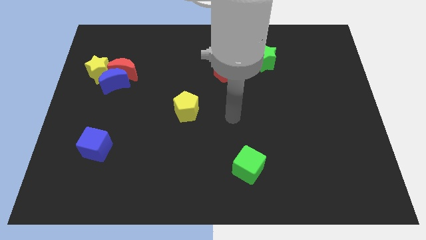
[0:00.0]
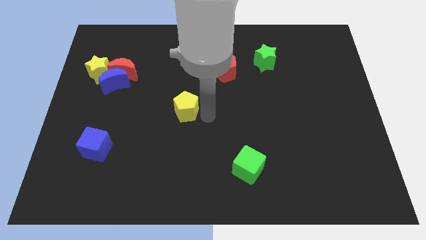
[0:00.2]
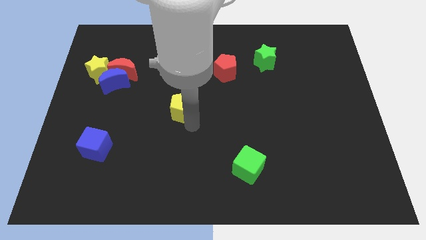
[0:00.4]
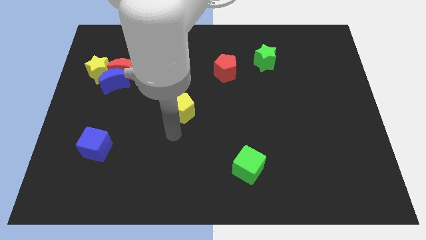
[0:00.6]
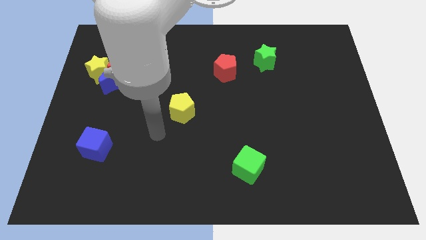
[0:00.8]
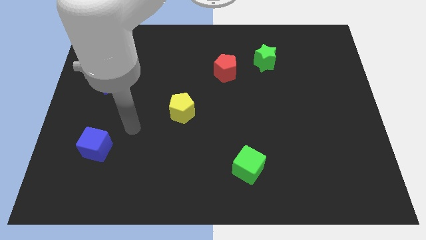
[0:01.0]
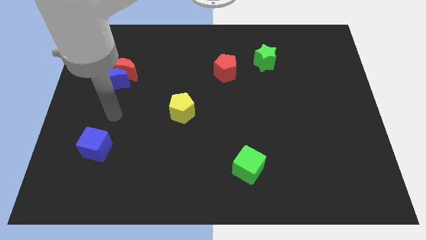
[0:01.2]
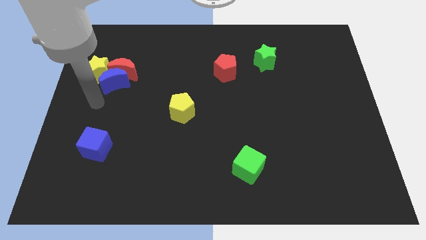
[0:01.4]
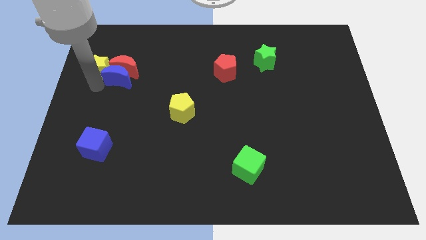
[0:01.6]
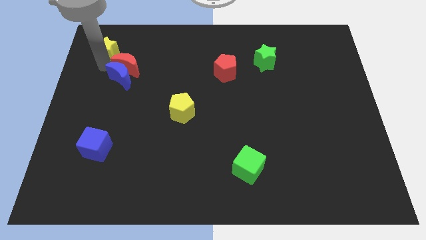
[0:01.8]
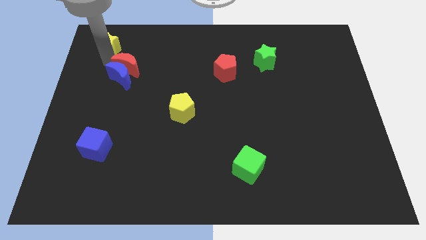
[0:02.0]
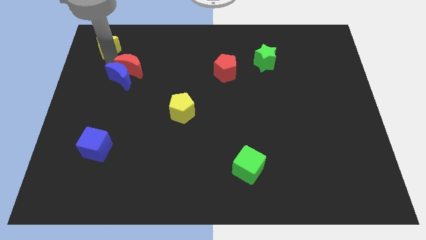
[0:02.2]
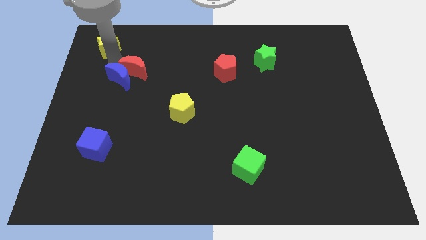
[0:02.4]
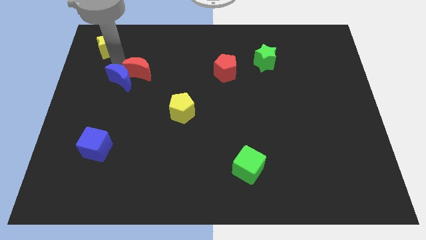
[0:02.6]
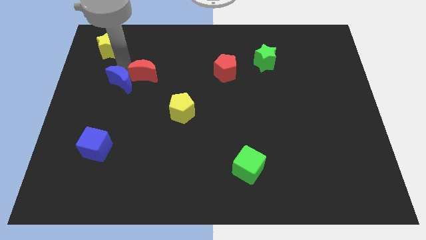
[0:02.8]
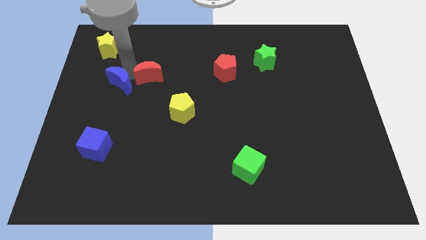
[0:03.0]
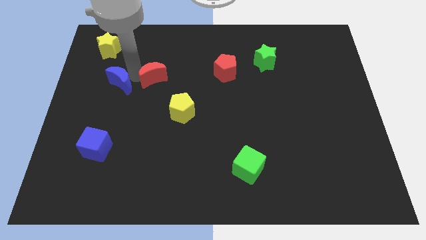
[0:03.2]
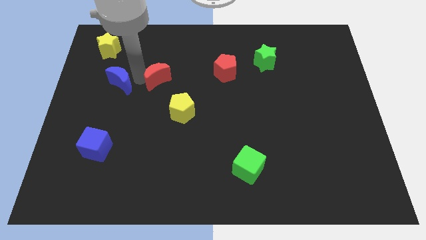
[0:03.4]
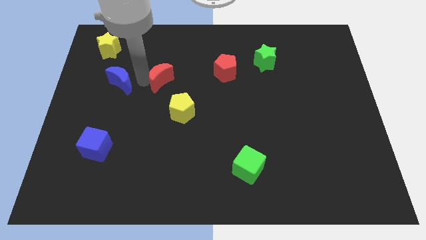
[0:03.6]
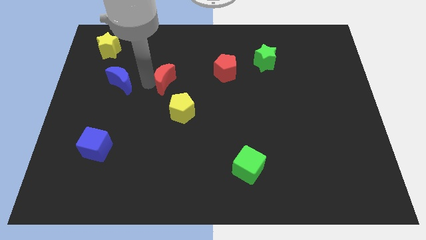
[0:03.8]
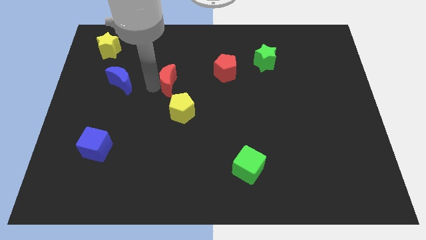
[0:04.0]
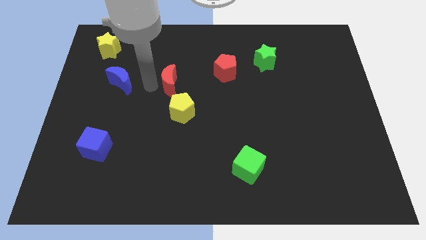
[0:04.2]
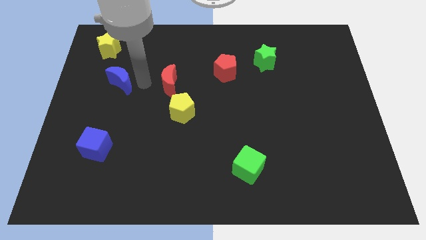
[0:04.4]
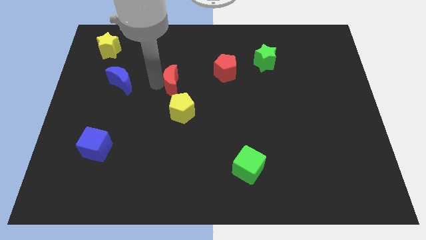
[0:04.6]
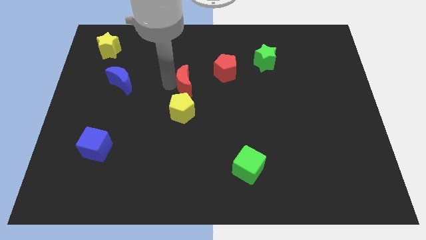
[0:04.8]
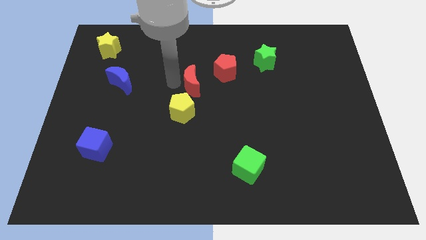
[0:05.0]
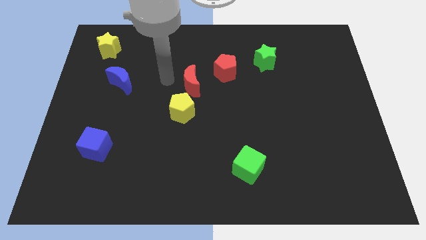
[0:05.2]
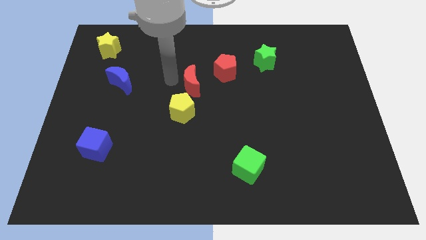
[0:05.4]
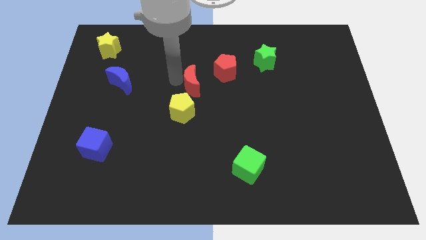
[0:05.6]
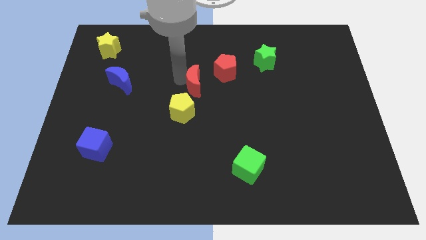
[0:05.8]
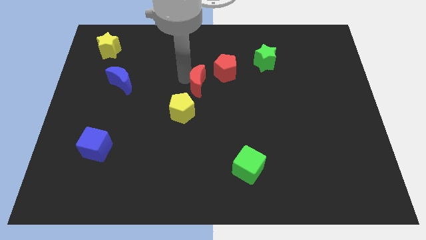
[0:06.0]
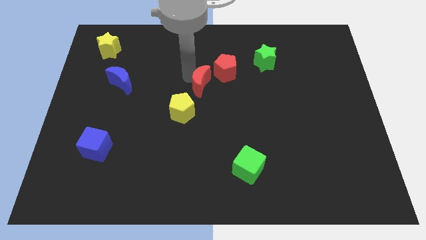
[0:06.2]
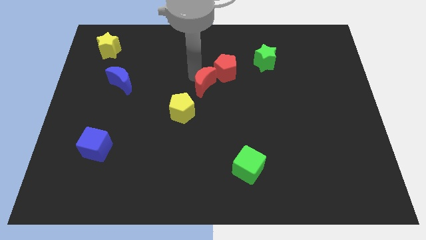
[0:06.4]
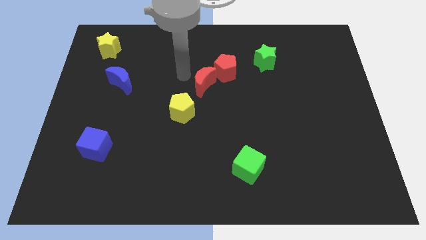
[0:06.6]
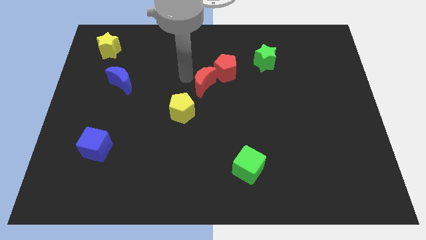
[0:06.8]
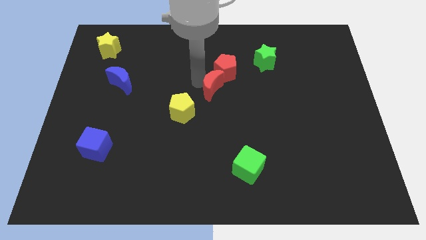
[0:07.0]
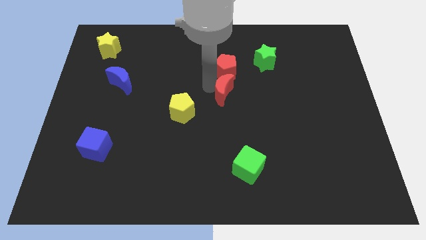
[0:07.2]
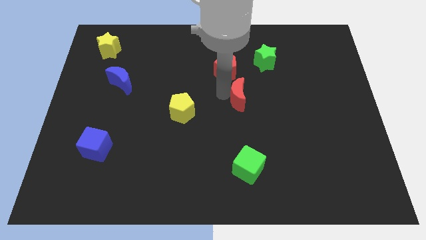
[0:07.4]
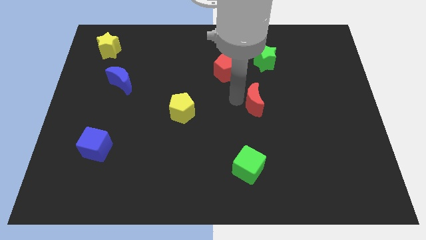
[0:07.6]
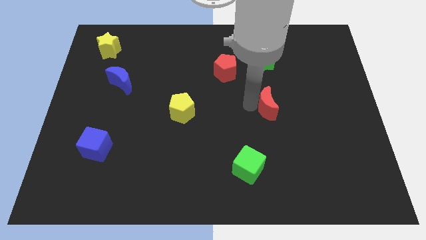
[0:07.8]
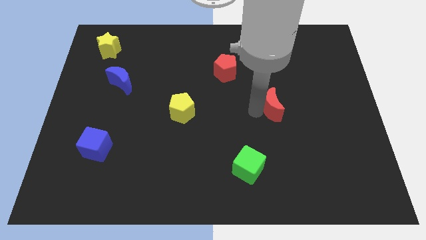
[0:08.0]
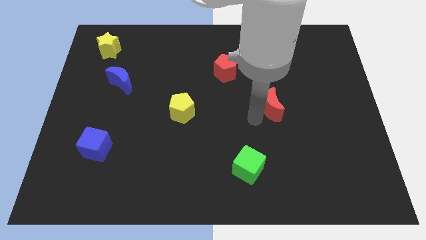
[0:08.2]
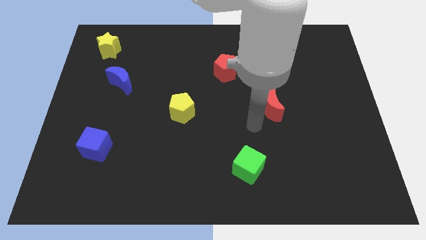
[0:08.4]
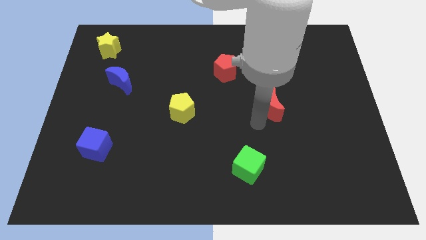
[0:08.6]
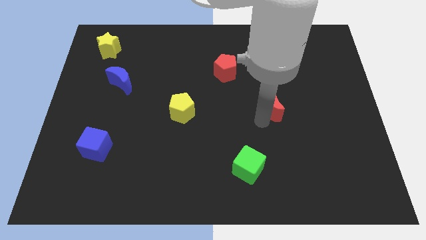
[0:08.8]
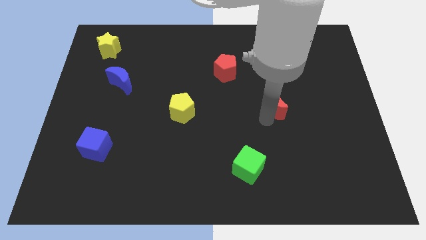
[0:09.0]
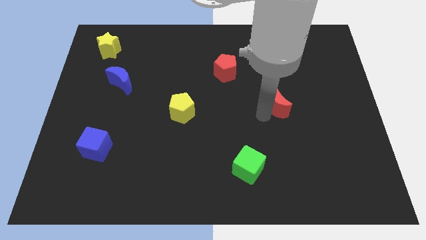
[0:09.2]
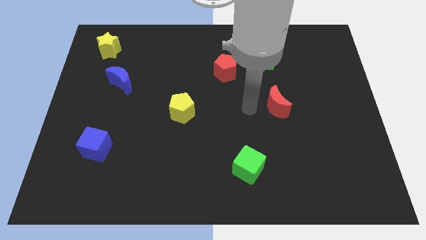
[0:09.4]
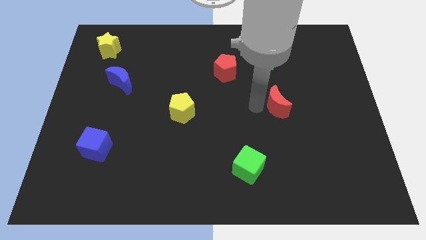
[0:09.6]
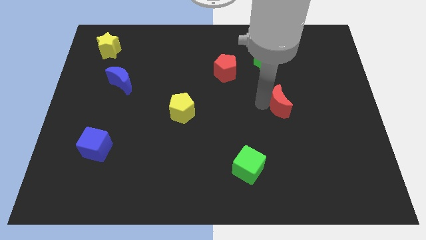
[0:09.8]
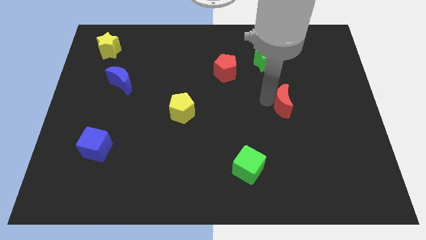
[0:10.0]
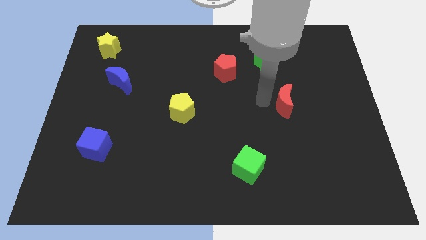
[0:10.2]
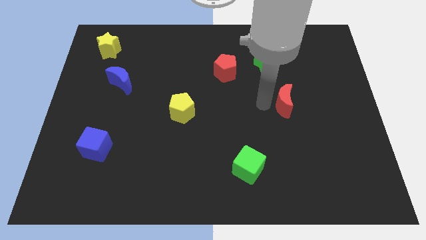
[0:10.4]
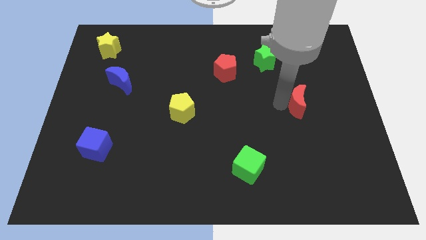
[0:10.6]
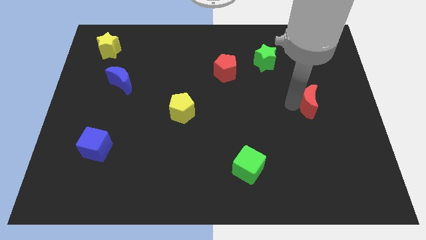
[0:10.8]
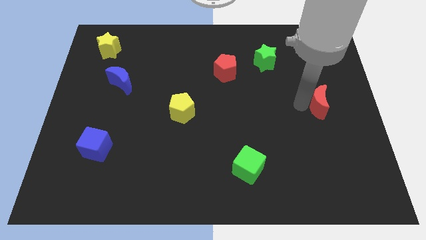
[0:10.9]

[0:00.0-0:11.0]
push the red moon to the right side of the board
